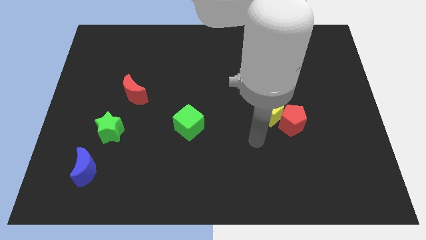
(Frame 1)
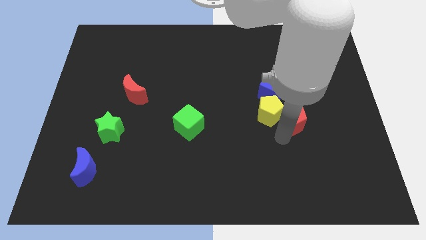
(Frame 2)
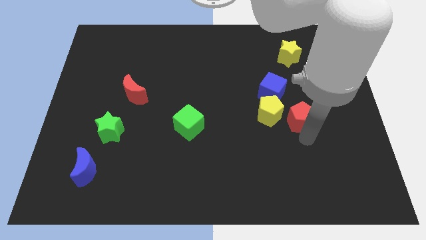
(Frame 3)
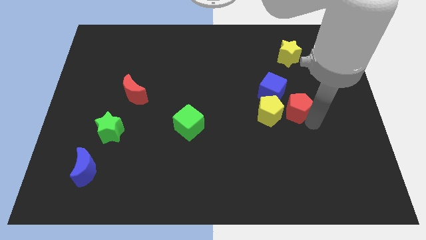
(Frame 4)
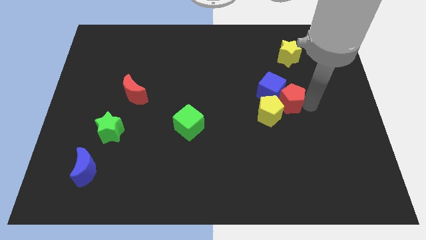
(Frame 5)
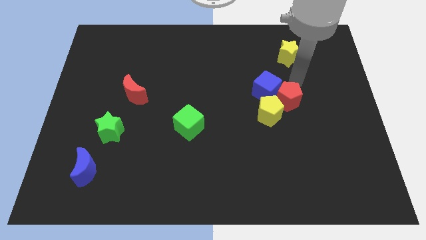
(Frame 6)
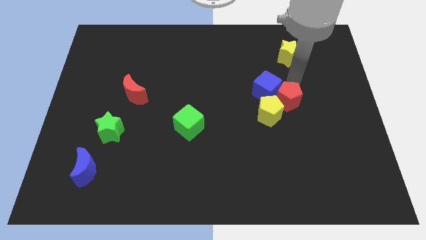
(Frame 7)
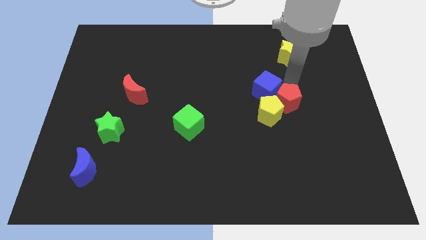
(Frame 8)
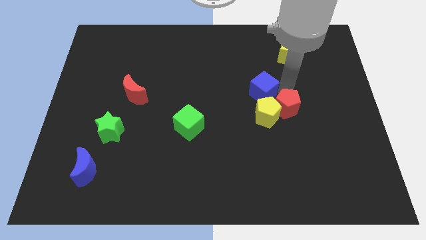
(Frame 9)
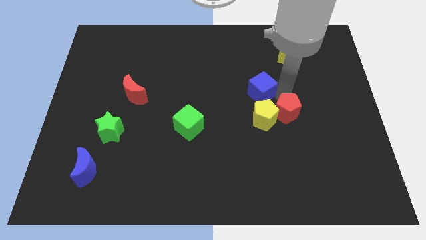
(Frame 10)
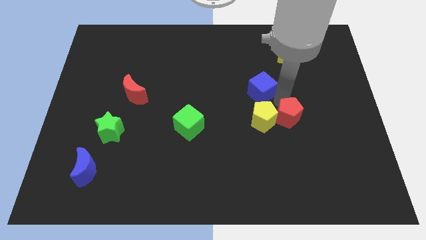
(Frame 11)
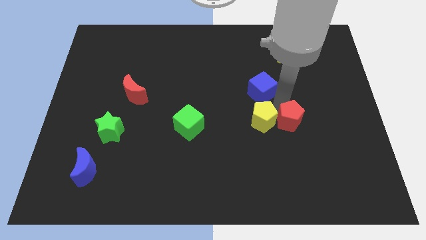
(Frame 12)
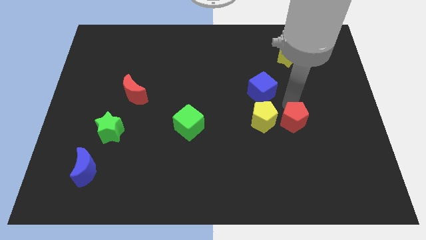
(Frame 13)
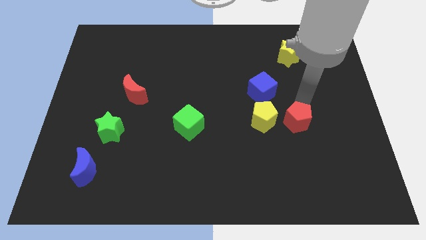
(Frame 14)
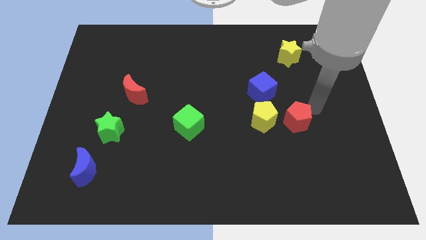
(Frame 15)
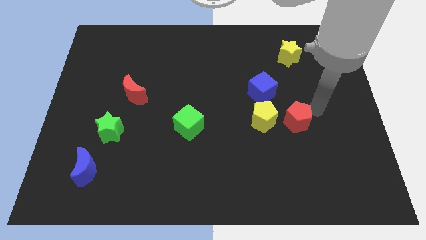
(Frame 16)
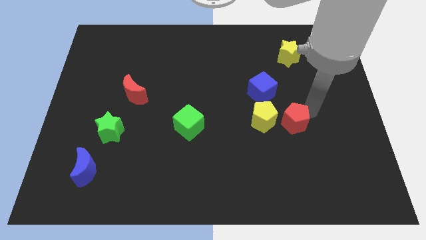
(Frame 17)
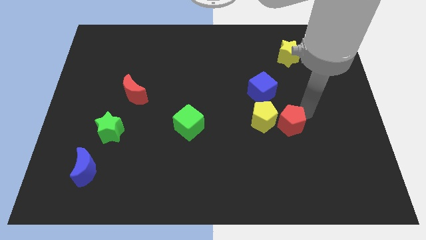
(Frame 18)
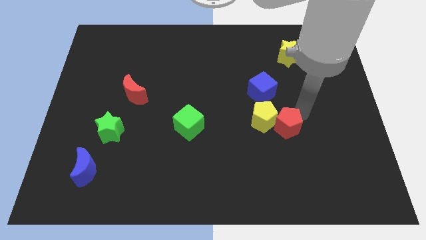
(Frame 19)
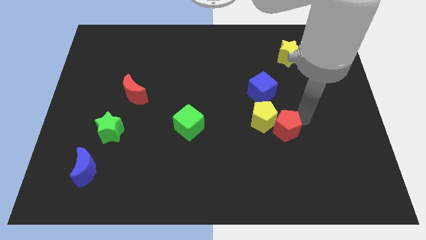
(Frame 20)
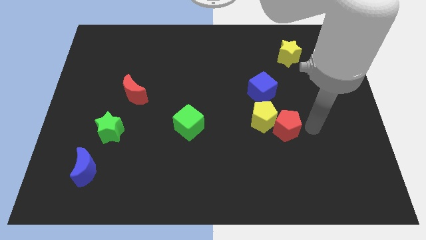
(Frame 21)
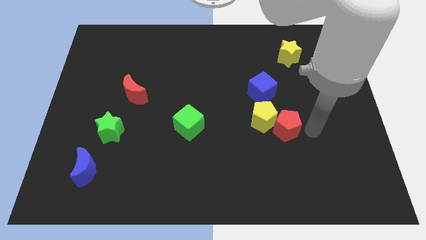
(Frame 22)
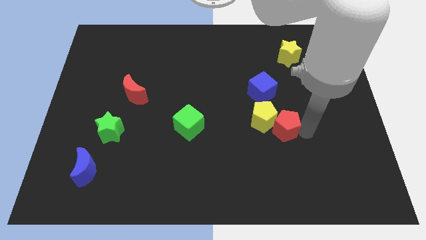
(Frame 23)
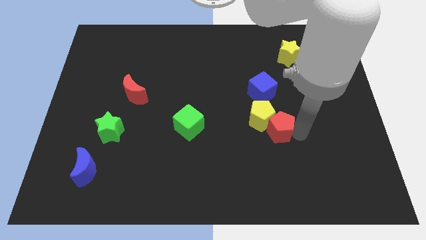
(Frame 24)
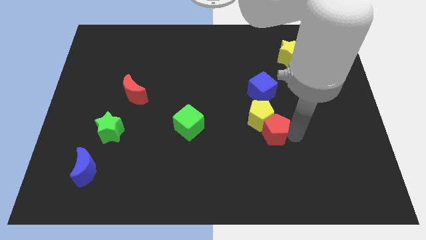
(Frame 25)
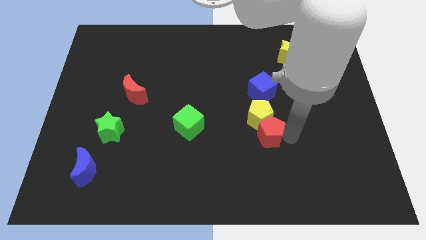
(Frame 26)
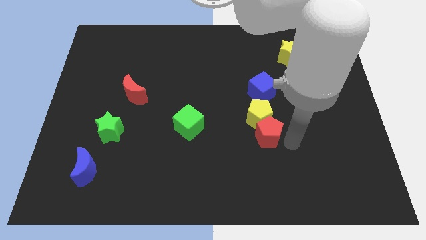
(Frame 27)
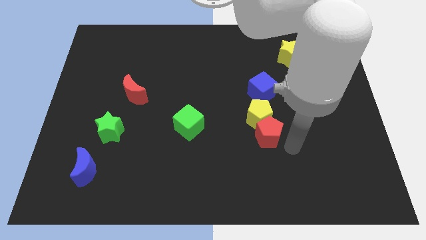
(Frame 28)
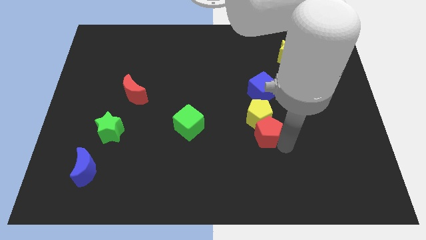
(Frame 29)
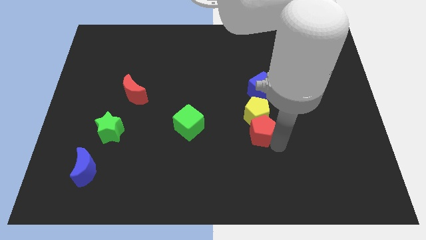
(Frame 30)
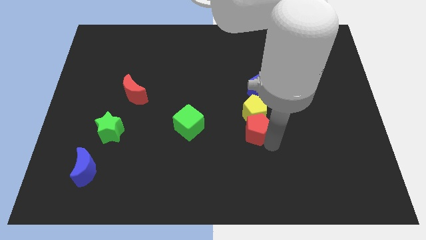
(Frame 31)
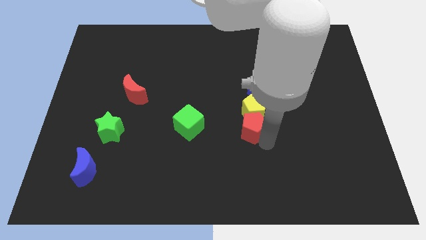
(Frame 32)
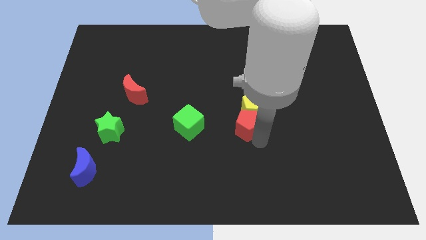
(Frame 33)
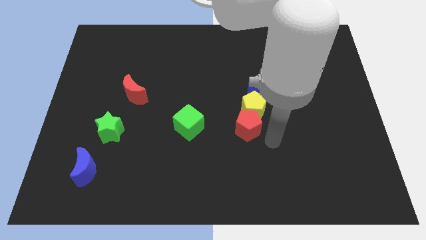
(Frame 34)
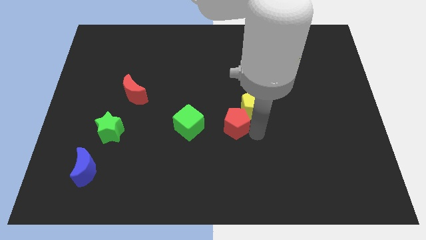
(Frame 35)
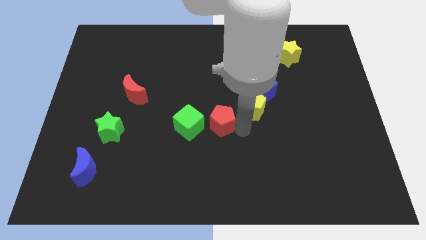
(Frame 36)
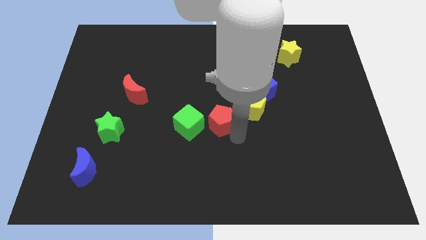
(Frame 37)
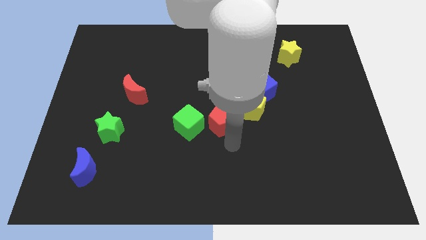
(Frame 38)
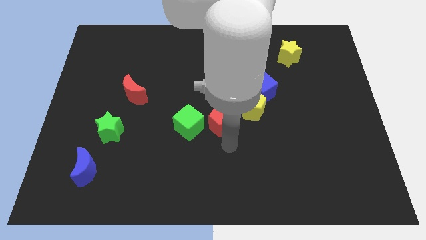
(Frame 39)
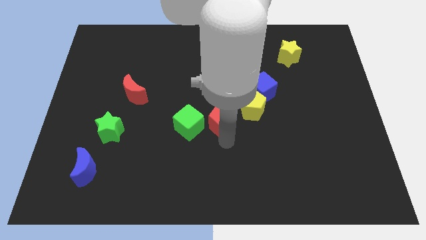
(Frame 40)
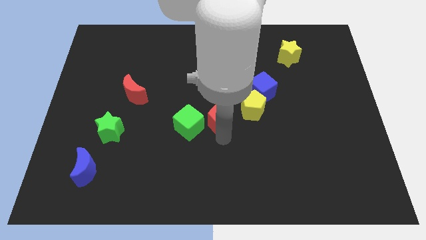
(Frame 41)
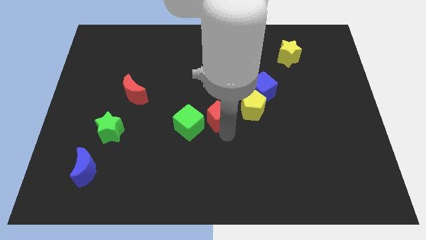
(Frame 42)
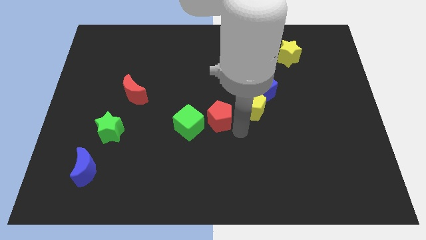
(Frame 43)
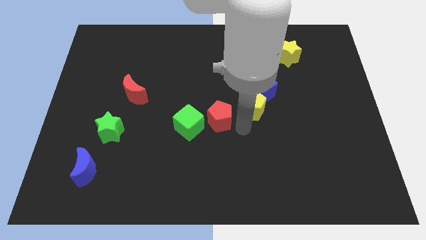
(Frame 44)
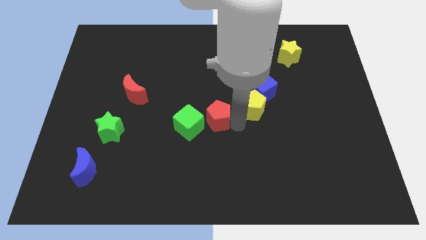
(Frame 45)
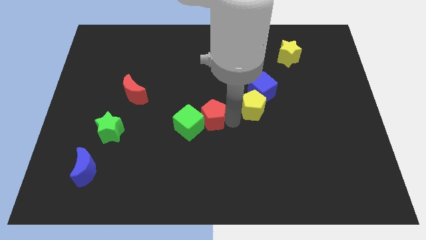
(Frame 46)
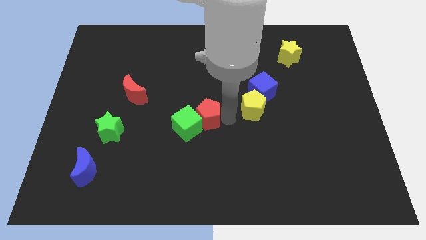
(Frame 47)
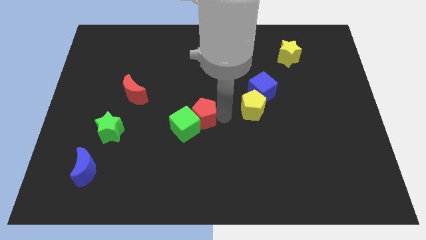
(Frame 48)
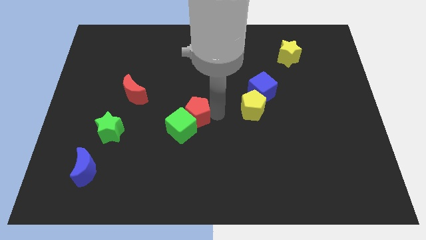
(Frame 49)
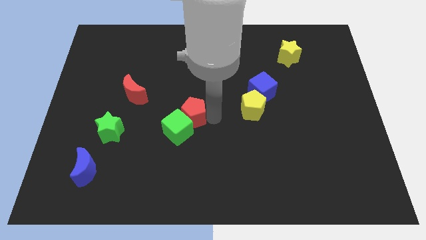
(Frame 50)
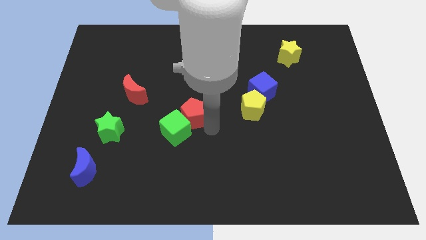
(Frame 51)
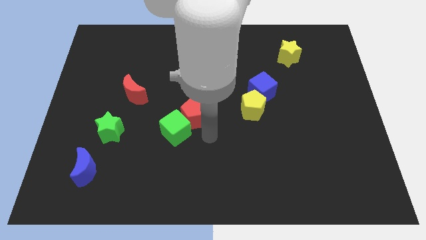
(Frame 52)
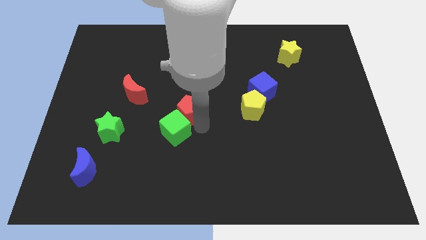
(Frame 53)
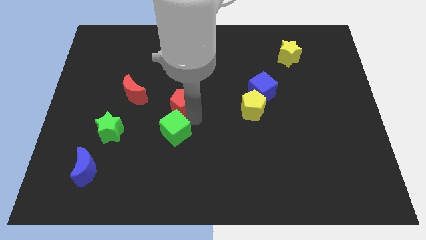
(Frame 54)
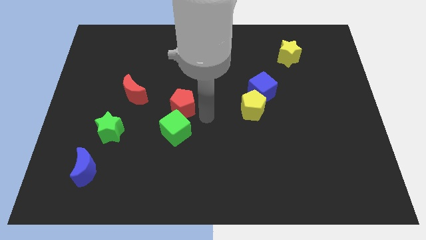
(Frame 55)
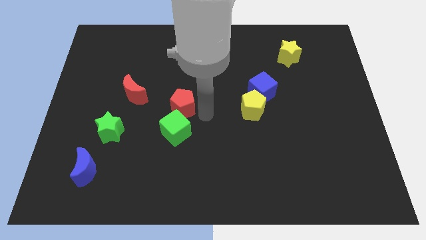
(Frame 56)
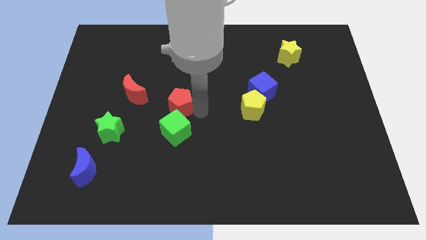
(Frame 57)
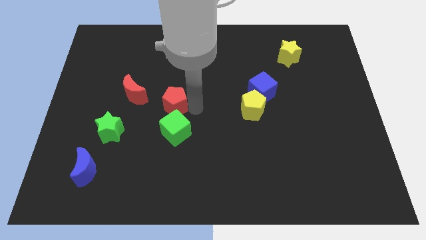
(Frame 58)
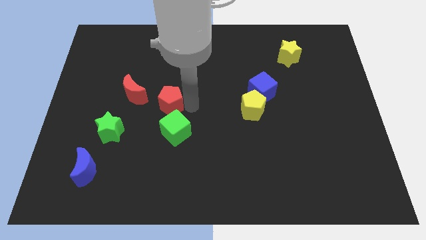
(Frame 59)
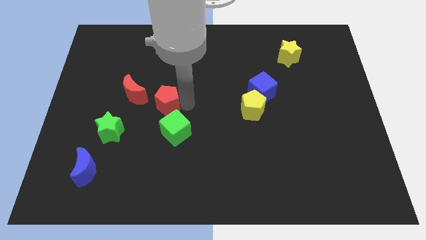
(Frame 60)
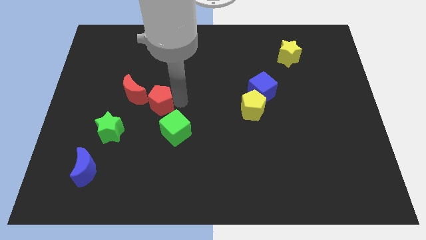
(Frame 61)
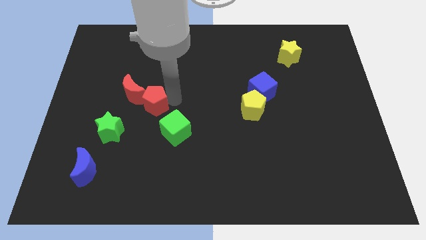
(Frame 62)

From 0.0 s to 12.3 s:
push the red pentagon next to the red moon

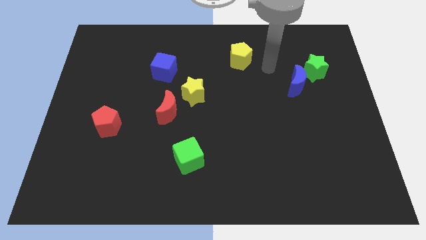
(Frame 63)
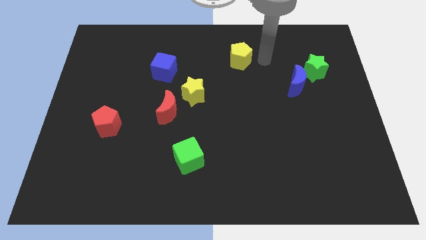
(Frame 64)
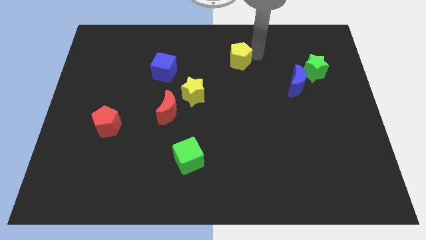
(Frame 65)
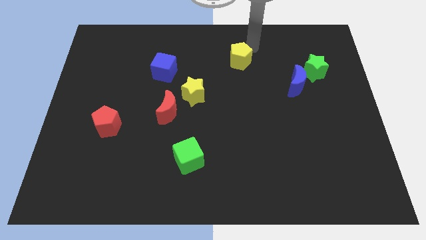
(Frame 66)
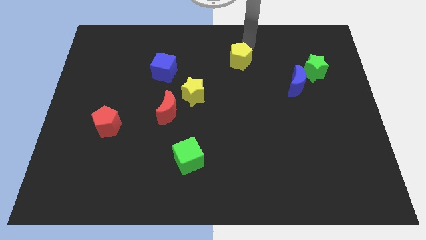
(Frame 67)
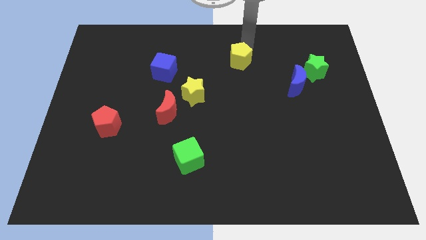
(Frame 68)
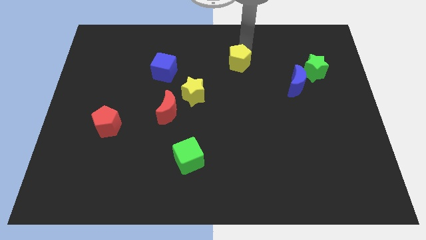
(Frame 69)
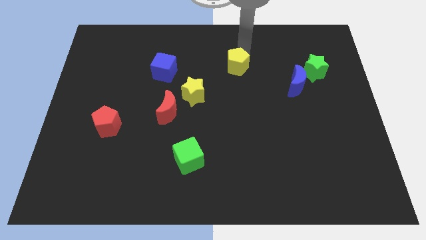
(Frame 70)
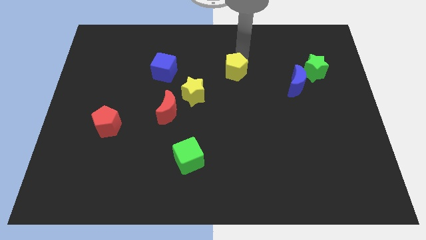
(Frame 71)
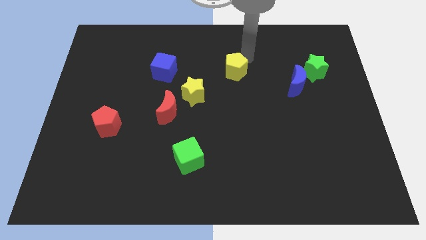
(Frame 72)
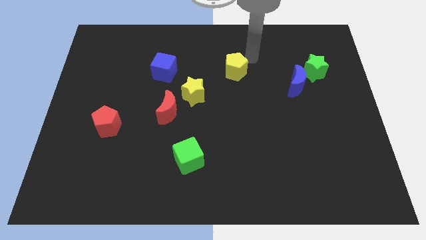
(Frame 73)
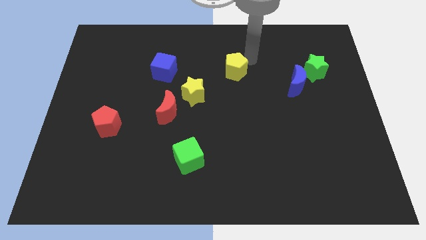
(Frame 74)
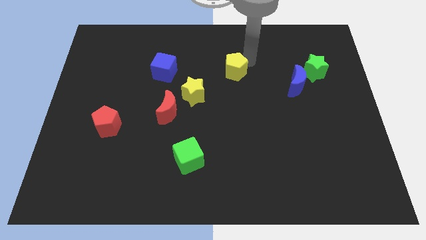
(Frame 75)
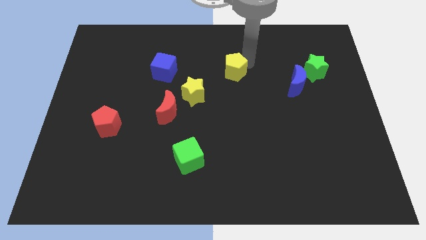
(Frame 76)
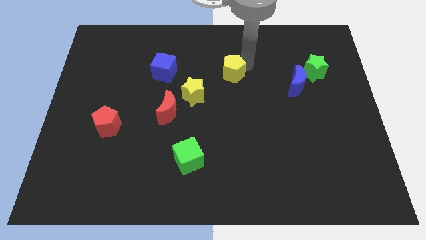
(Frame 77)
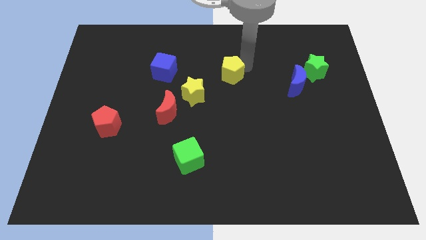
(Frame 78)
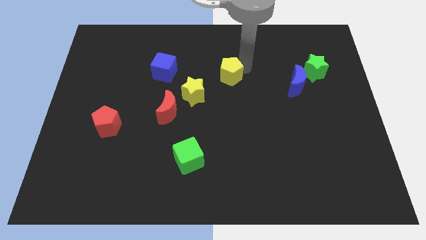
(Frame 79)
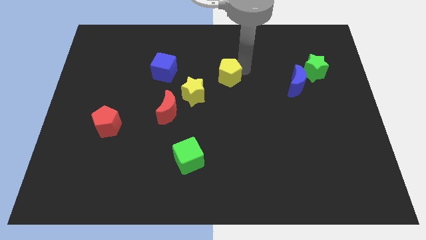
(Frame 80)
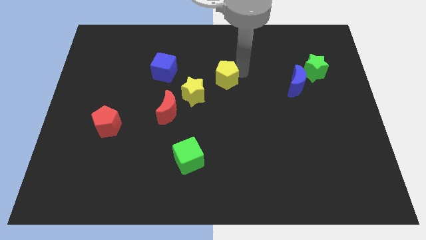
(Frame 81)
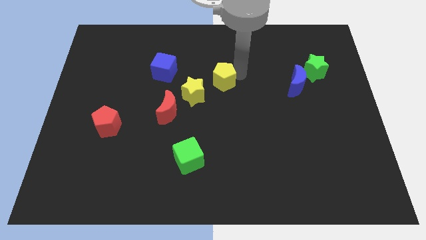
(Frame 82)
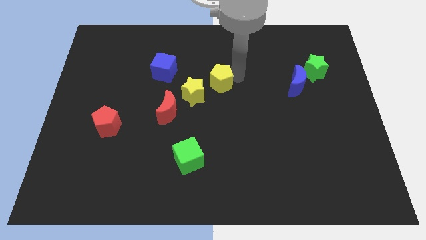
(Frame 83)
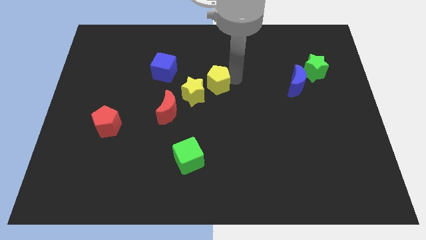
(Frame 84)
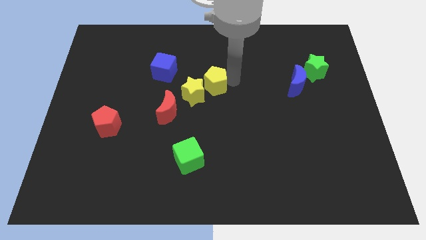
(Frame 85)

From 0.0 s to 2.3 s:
push the yellow pentagon to the yellow star
